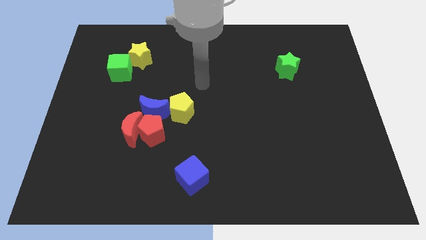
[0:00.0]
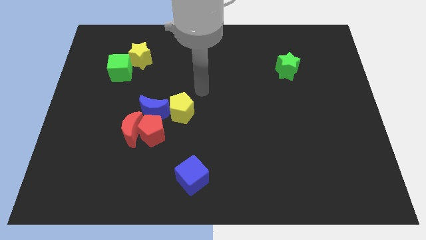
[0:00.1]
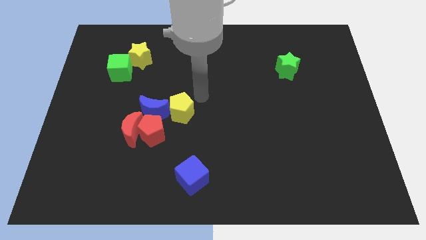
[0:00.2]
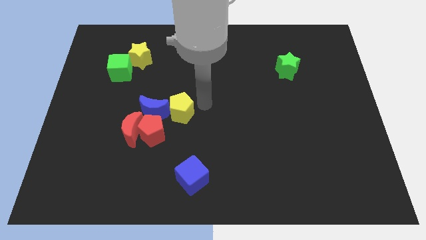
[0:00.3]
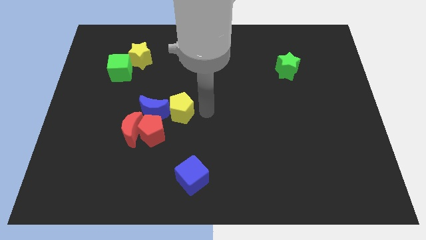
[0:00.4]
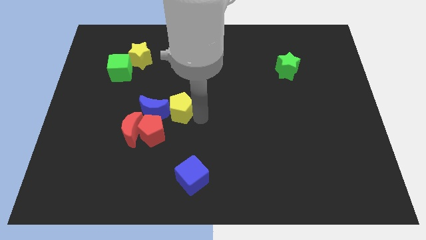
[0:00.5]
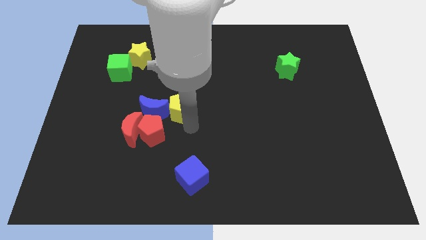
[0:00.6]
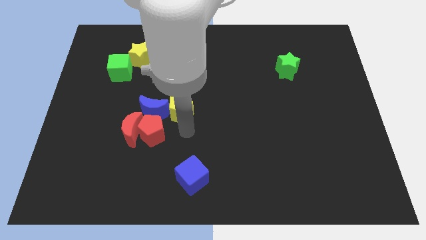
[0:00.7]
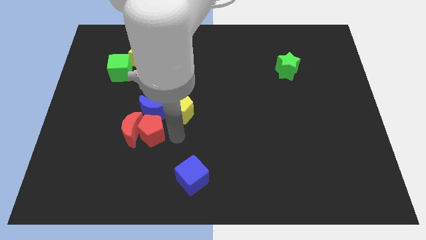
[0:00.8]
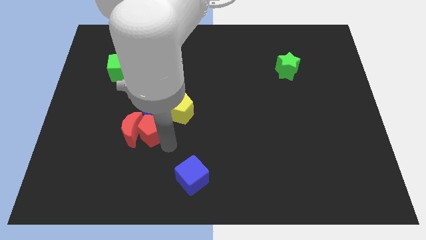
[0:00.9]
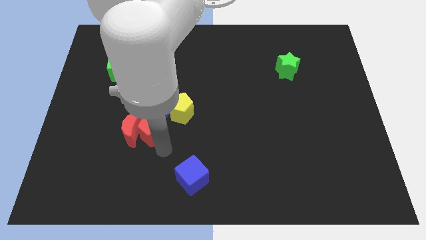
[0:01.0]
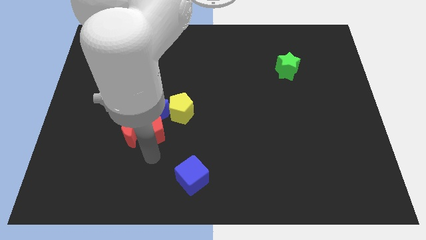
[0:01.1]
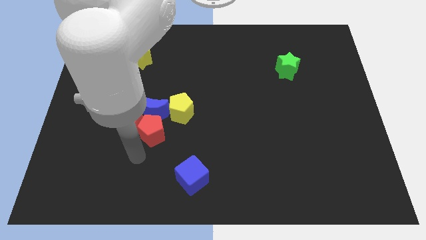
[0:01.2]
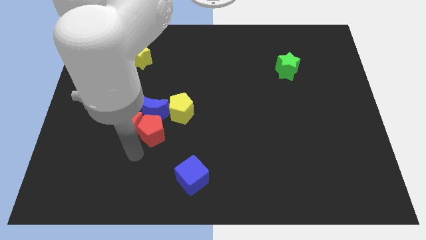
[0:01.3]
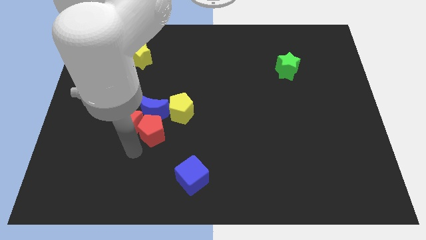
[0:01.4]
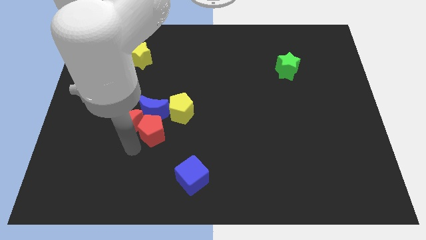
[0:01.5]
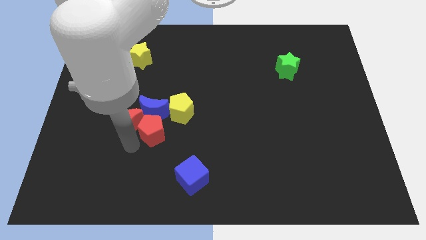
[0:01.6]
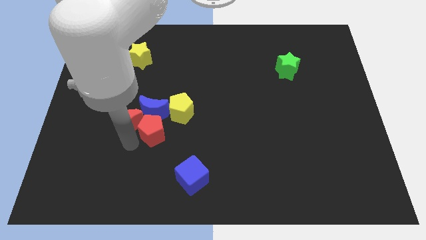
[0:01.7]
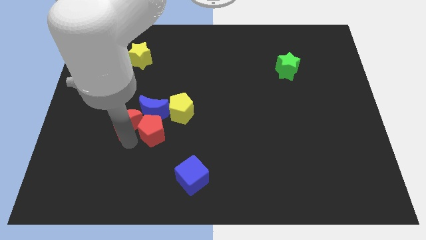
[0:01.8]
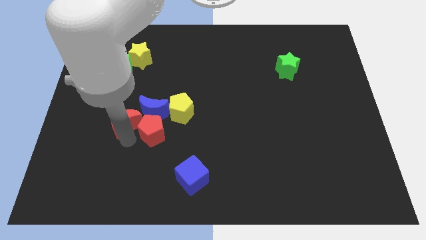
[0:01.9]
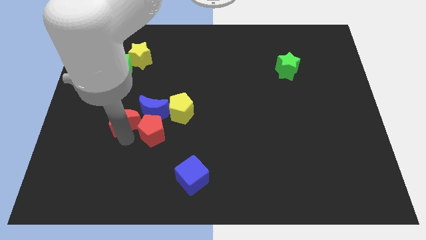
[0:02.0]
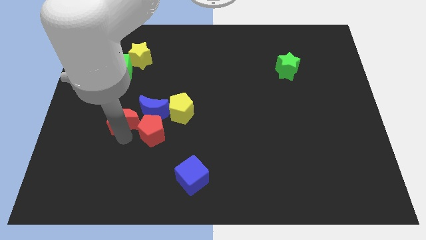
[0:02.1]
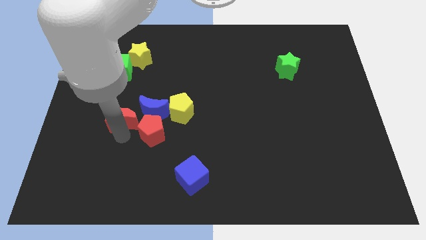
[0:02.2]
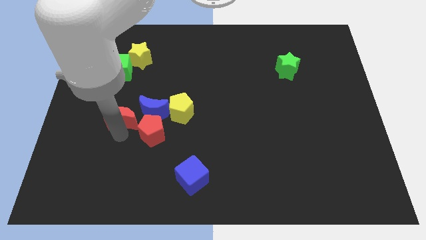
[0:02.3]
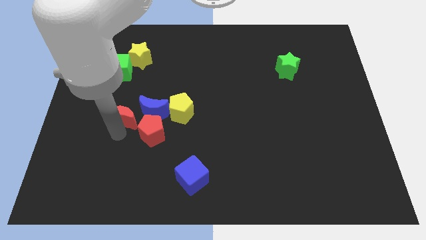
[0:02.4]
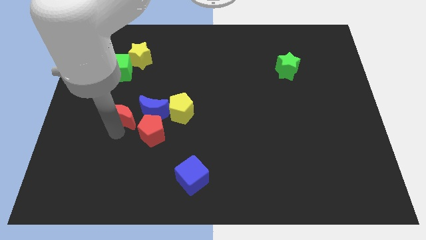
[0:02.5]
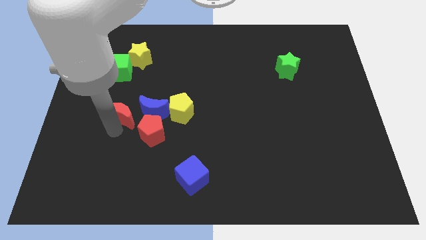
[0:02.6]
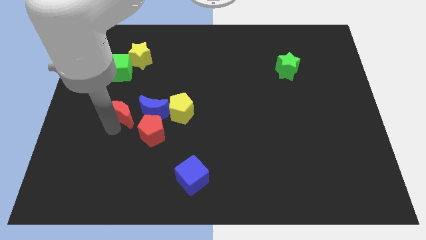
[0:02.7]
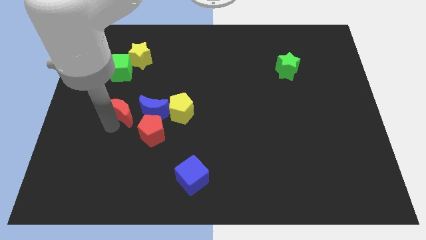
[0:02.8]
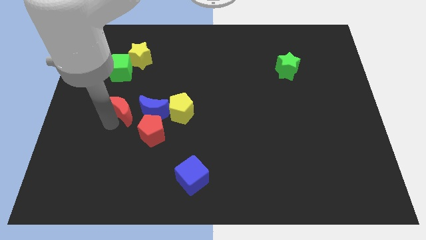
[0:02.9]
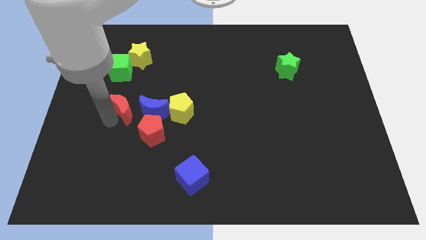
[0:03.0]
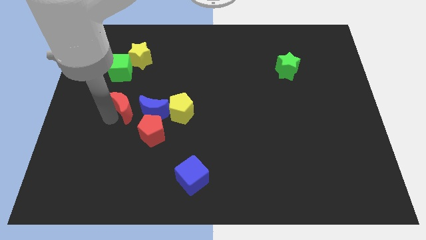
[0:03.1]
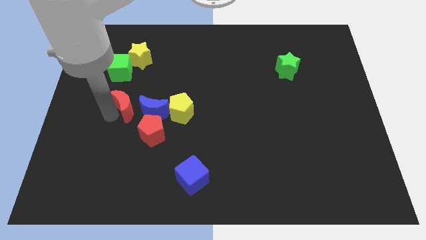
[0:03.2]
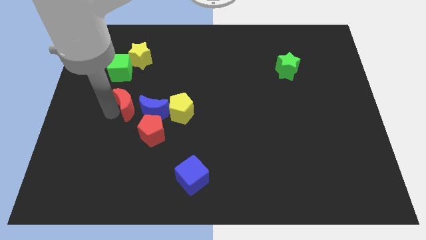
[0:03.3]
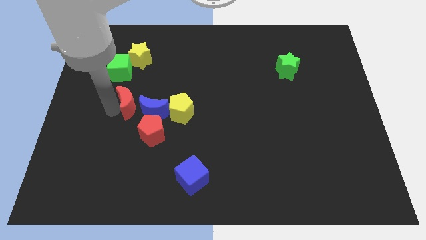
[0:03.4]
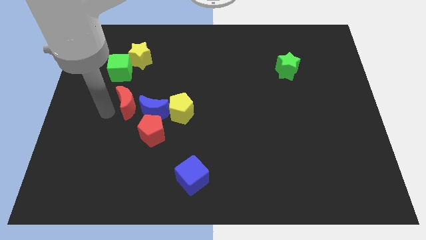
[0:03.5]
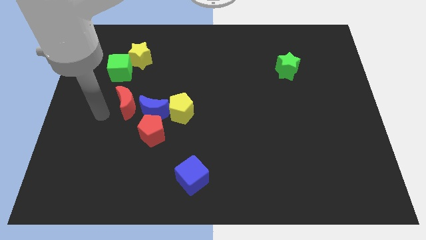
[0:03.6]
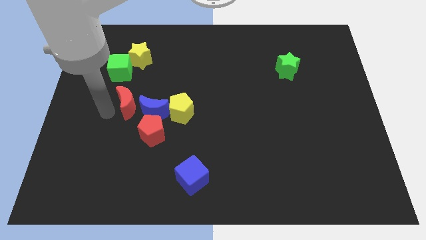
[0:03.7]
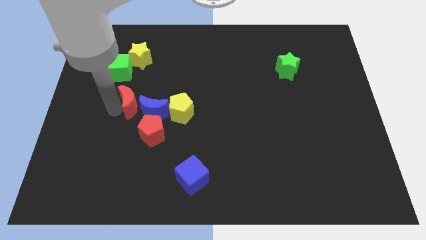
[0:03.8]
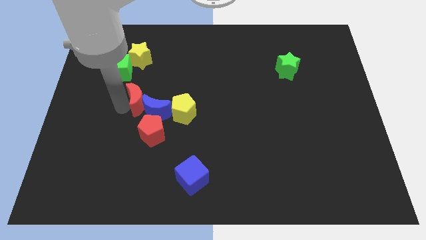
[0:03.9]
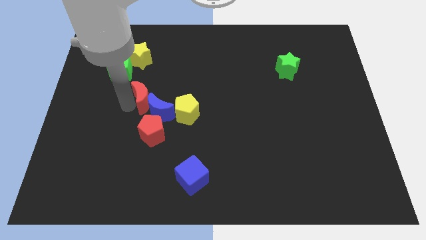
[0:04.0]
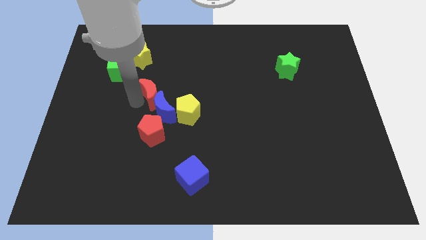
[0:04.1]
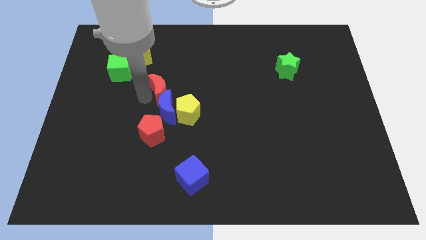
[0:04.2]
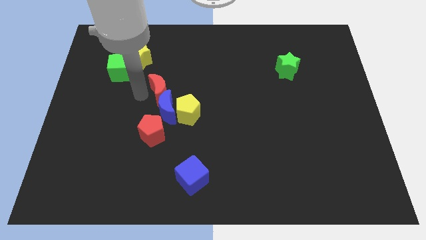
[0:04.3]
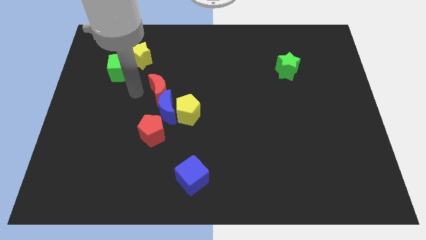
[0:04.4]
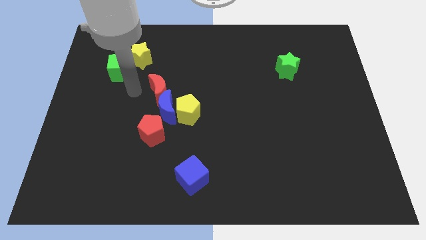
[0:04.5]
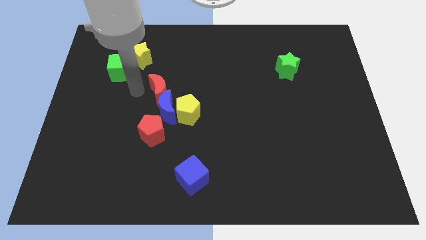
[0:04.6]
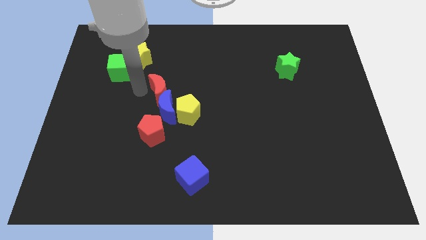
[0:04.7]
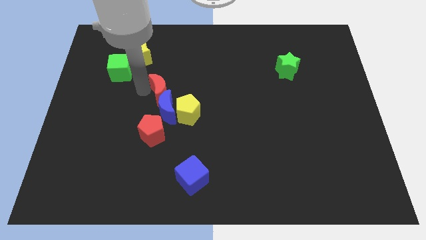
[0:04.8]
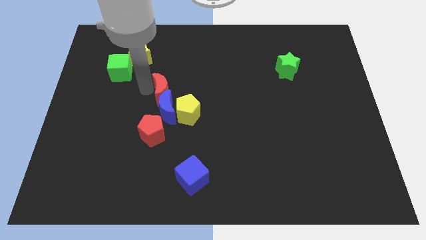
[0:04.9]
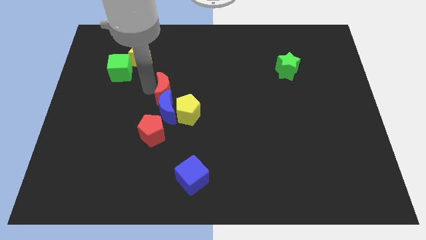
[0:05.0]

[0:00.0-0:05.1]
slide the red moon to the top right of the blue moon

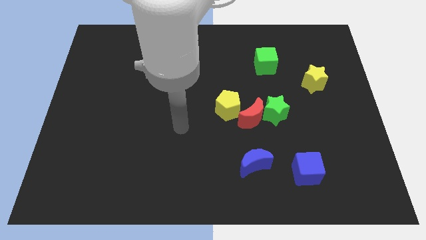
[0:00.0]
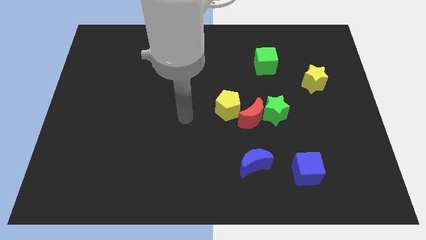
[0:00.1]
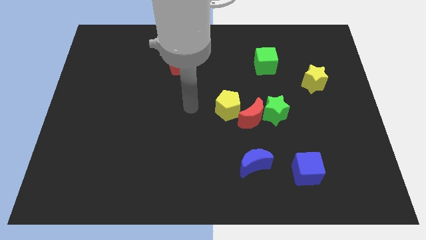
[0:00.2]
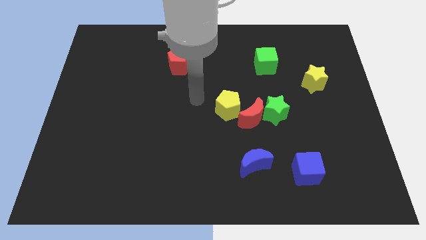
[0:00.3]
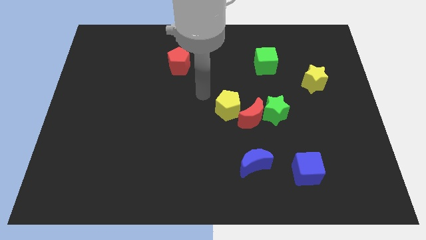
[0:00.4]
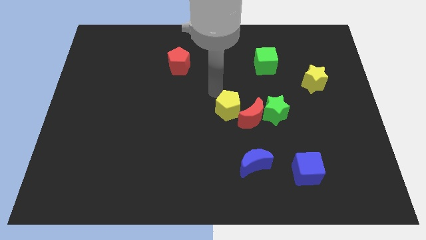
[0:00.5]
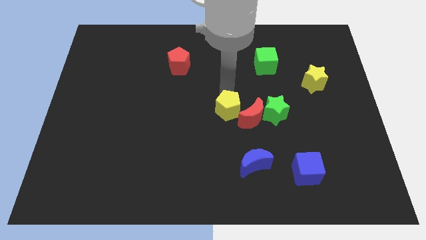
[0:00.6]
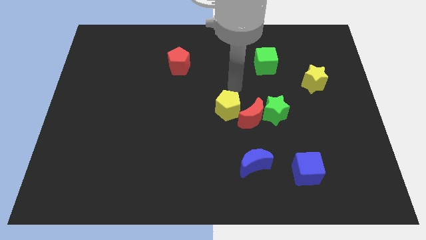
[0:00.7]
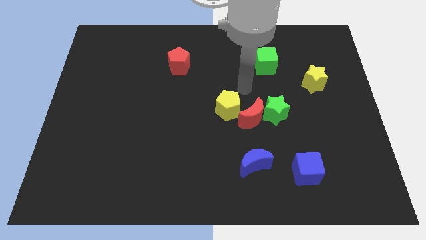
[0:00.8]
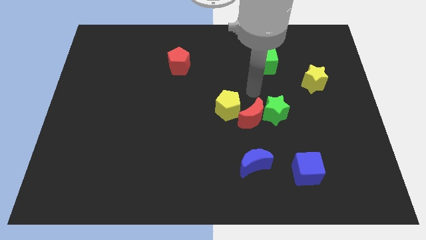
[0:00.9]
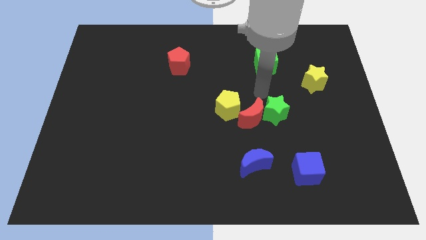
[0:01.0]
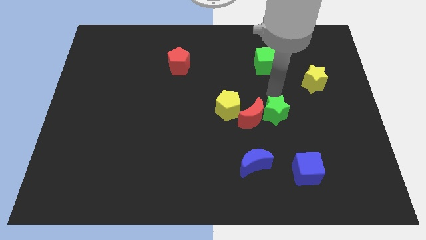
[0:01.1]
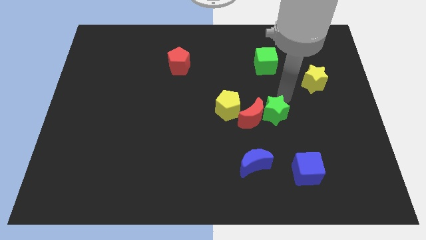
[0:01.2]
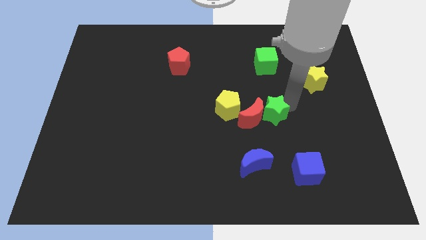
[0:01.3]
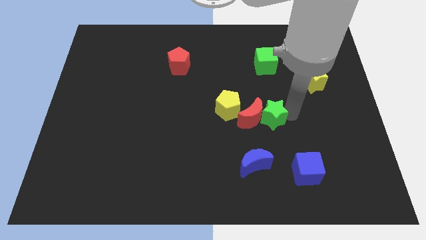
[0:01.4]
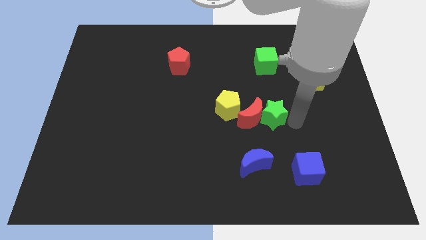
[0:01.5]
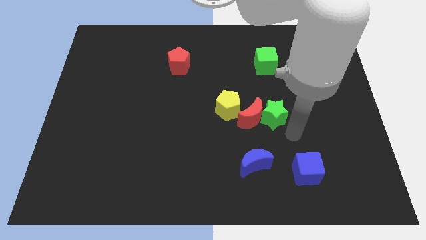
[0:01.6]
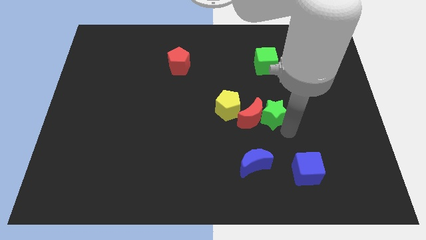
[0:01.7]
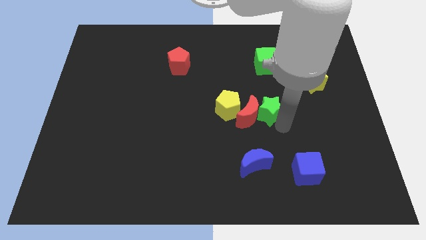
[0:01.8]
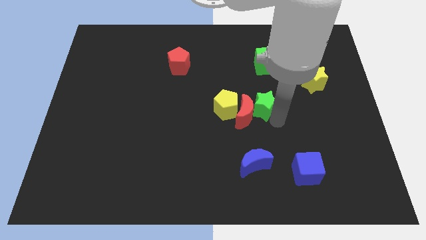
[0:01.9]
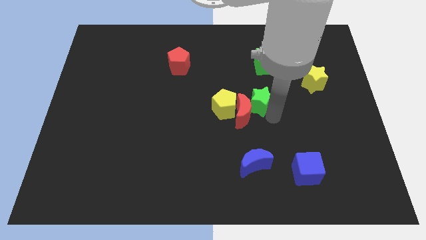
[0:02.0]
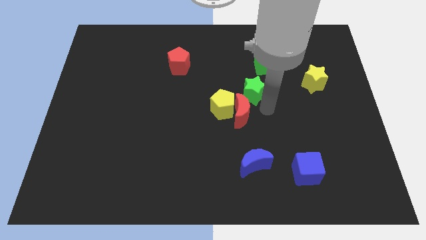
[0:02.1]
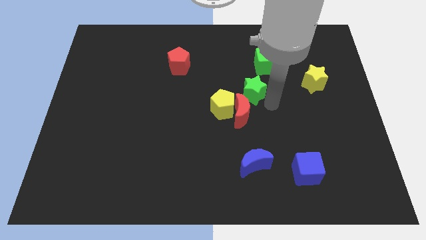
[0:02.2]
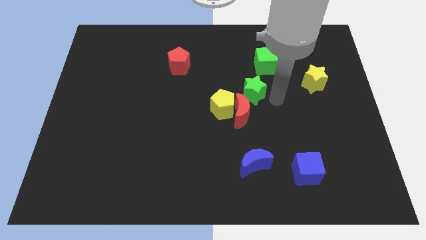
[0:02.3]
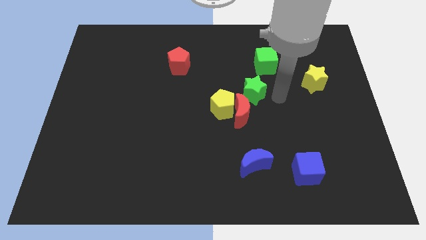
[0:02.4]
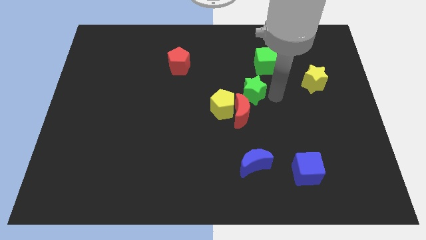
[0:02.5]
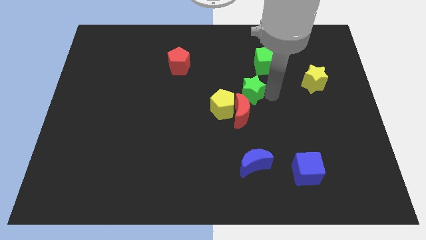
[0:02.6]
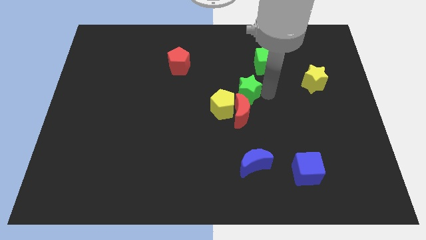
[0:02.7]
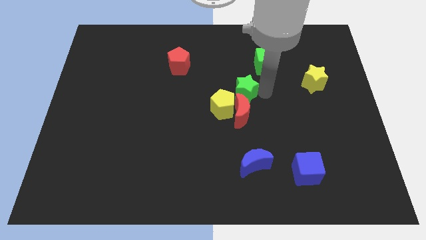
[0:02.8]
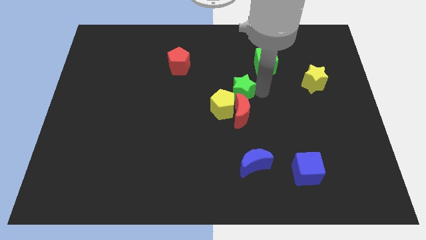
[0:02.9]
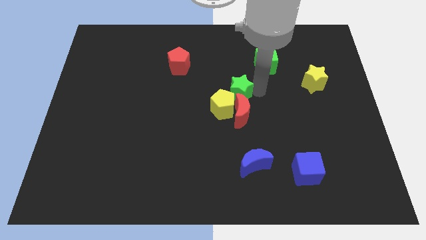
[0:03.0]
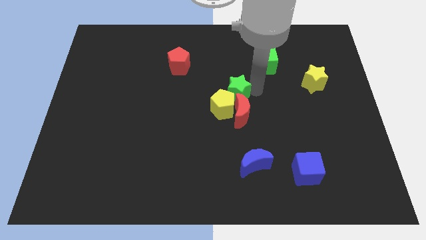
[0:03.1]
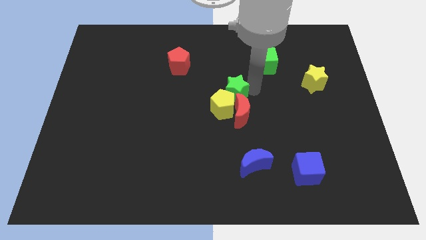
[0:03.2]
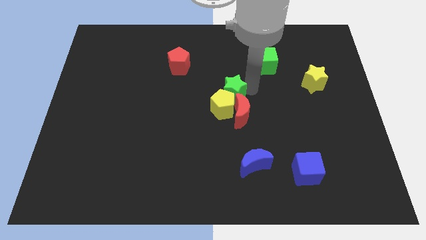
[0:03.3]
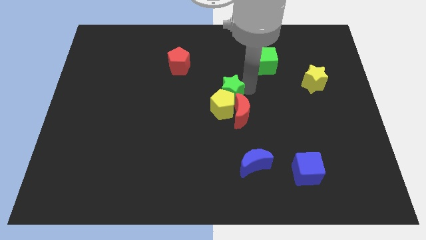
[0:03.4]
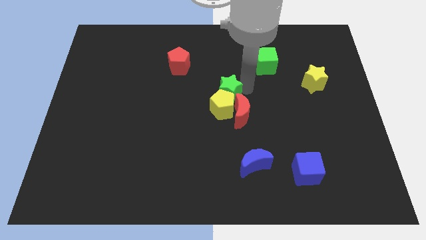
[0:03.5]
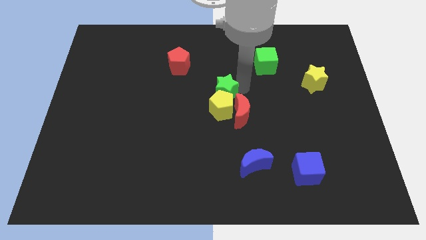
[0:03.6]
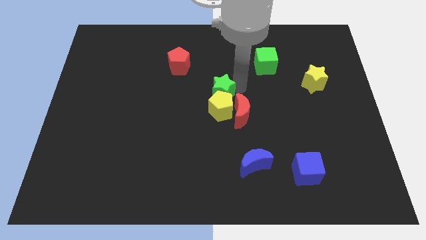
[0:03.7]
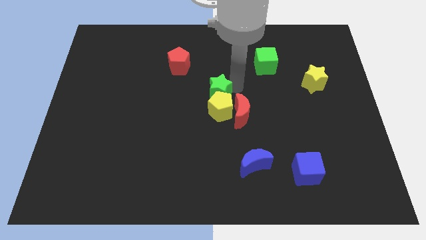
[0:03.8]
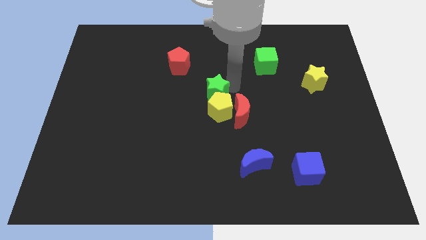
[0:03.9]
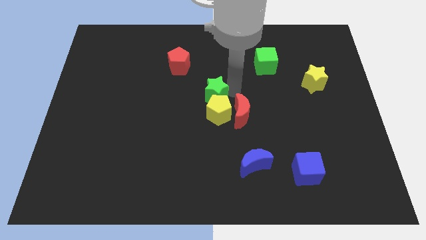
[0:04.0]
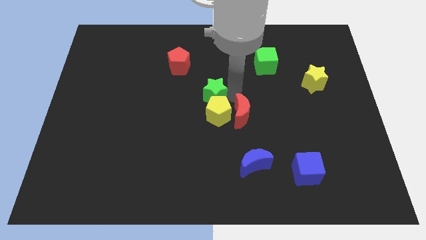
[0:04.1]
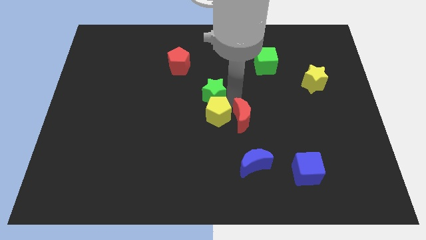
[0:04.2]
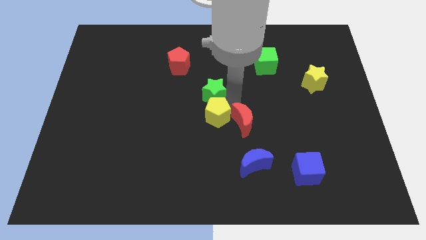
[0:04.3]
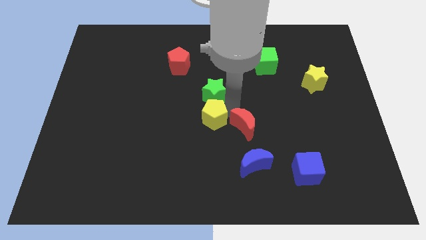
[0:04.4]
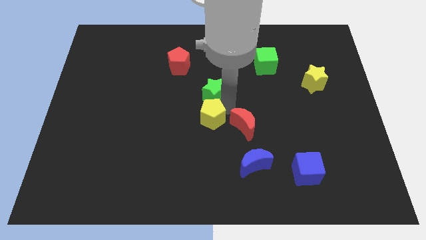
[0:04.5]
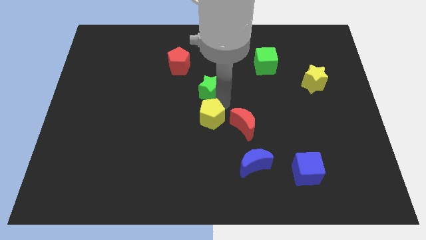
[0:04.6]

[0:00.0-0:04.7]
slide the green star to the bottom right of the red pentagon
